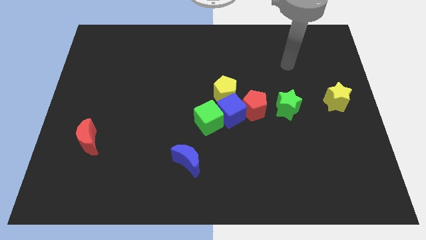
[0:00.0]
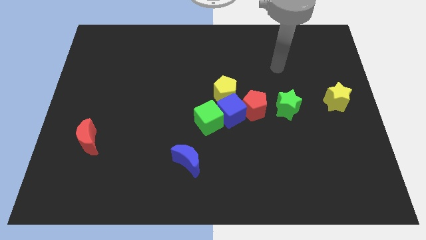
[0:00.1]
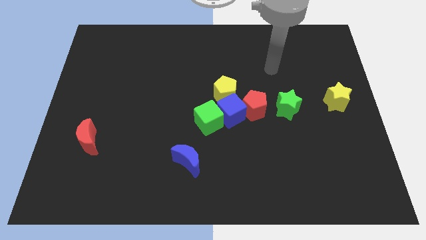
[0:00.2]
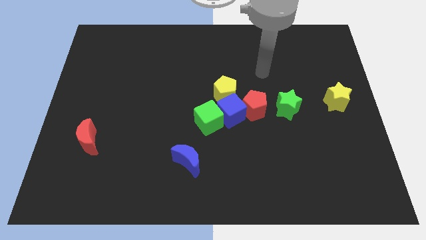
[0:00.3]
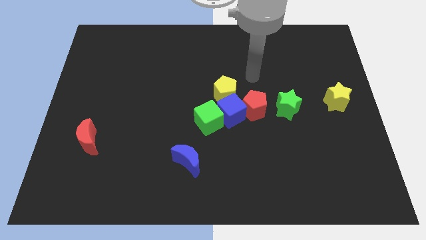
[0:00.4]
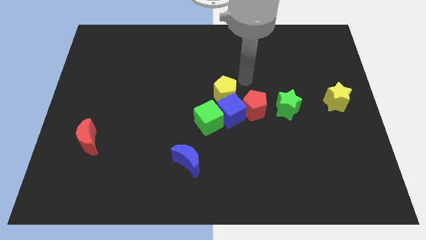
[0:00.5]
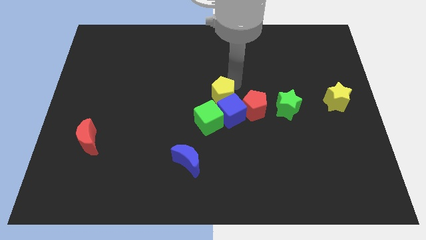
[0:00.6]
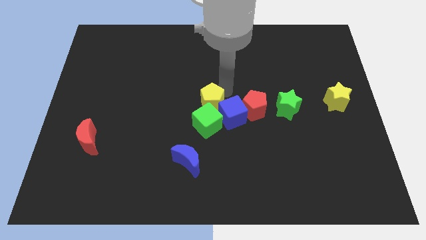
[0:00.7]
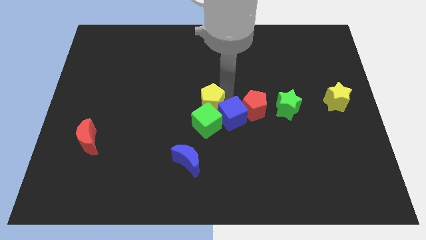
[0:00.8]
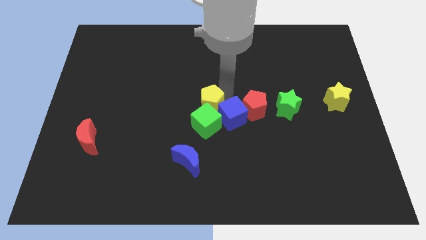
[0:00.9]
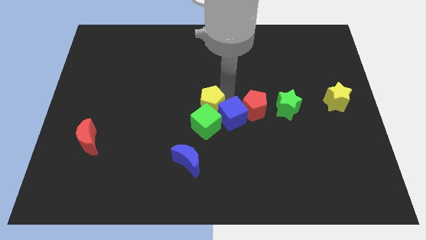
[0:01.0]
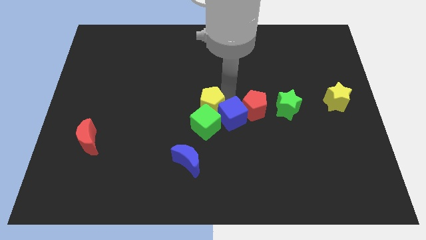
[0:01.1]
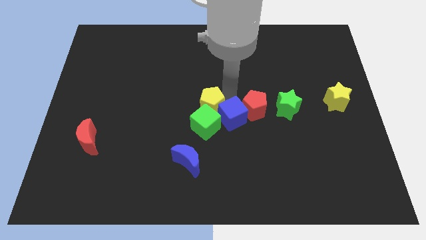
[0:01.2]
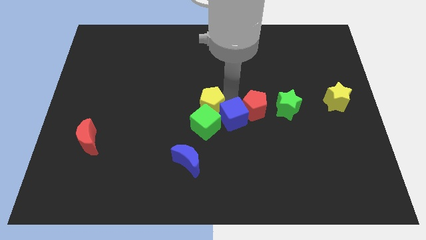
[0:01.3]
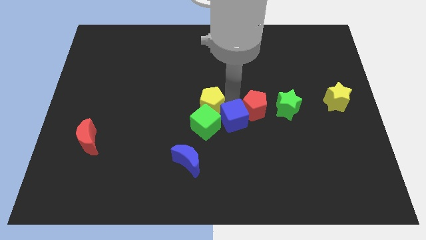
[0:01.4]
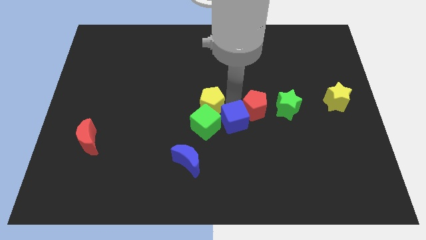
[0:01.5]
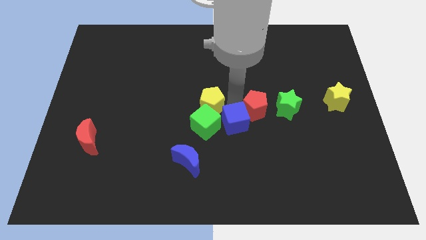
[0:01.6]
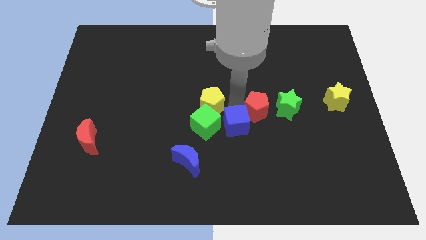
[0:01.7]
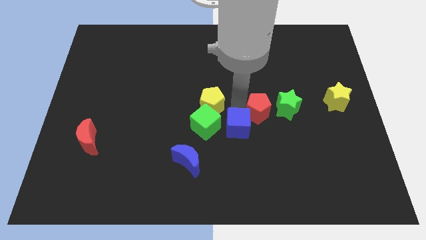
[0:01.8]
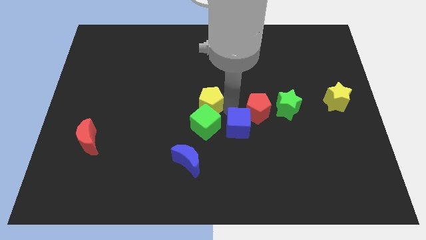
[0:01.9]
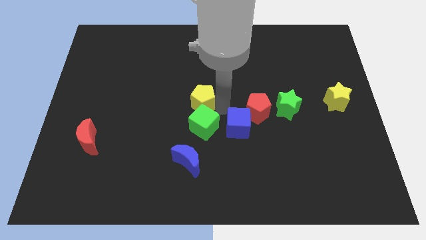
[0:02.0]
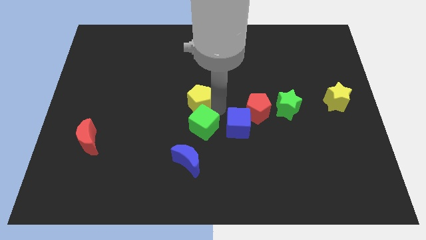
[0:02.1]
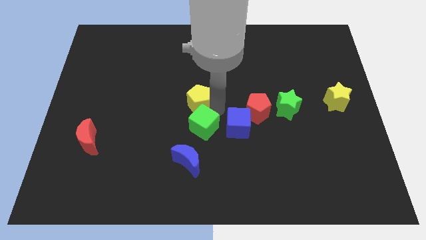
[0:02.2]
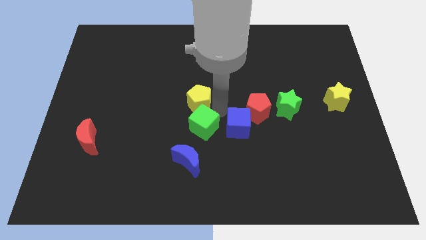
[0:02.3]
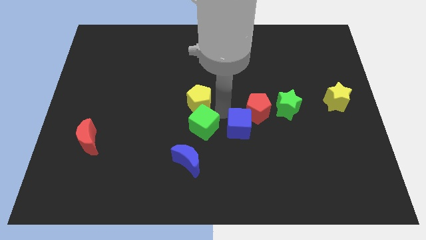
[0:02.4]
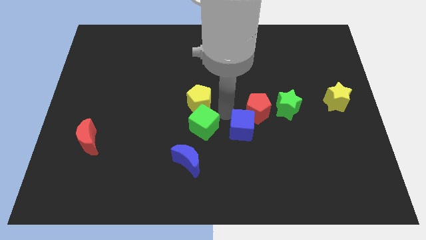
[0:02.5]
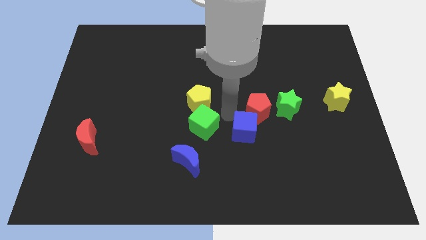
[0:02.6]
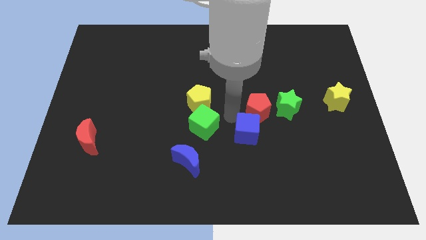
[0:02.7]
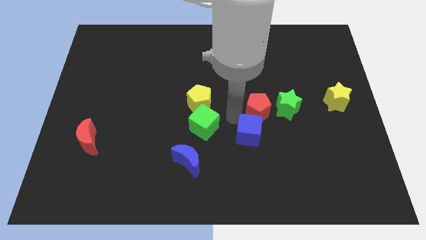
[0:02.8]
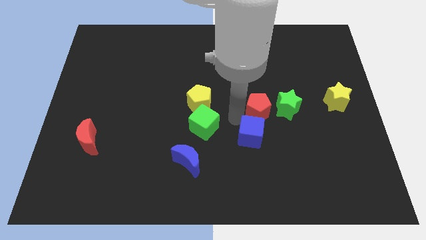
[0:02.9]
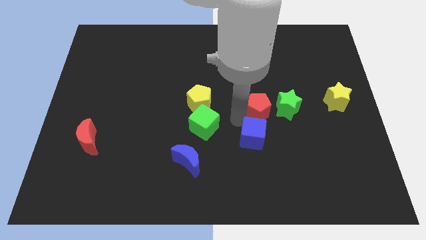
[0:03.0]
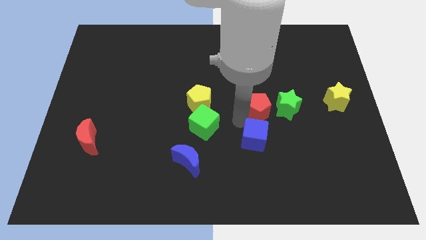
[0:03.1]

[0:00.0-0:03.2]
move the blue cube away from the green cube, red pentagon, and yellow pentagon

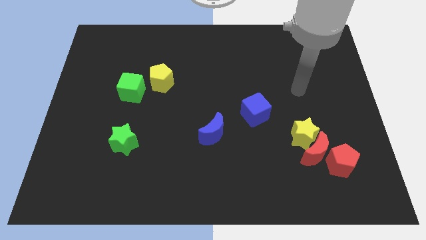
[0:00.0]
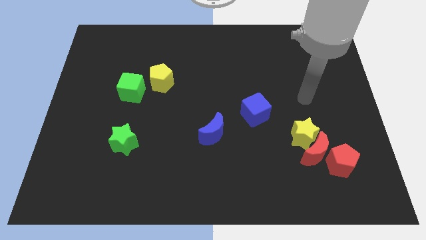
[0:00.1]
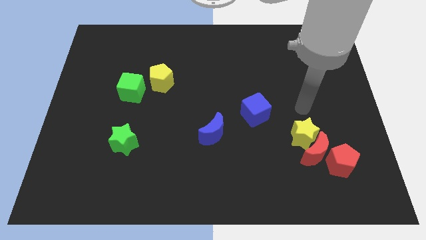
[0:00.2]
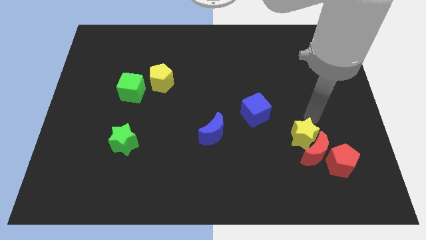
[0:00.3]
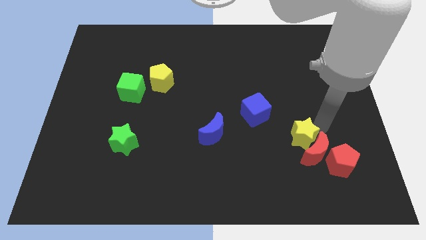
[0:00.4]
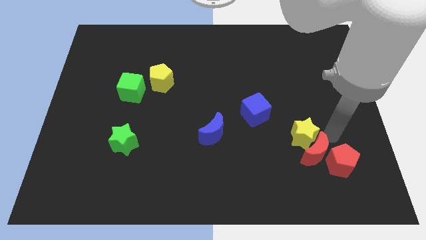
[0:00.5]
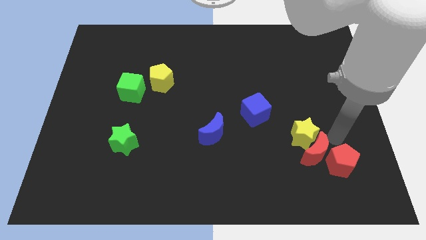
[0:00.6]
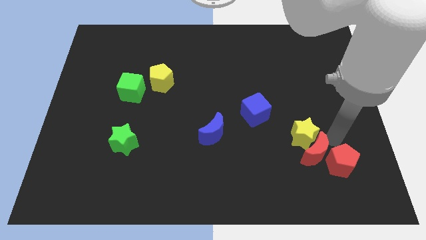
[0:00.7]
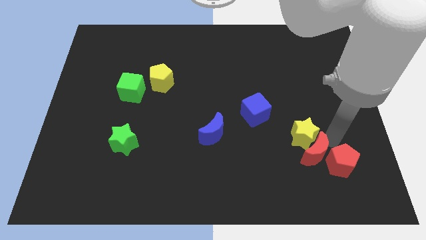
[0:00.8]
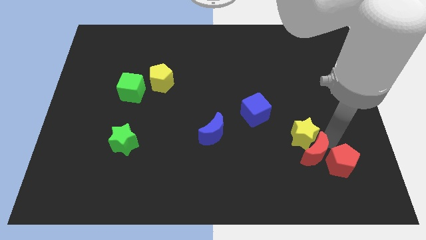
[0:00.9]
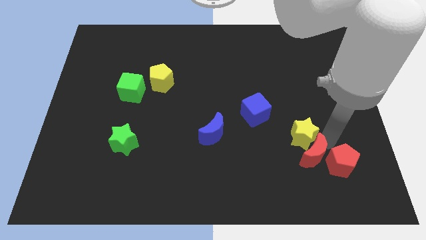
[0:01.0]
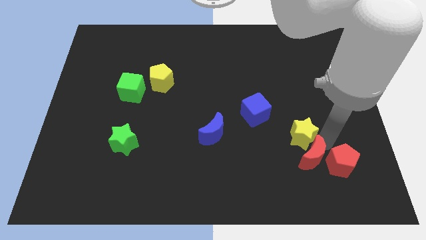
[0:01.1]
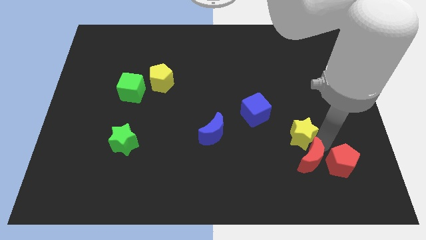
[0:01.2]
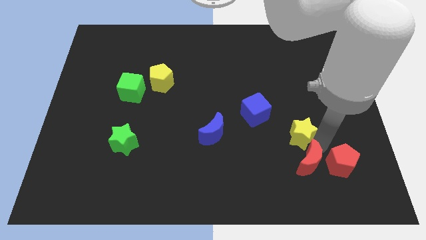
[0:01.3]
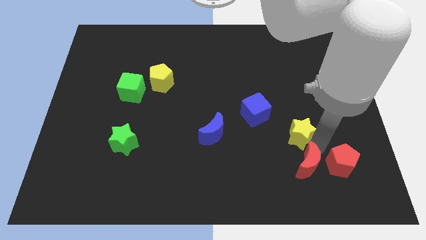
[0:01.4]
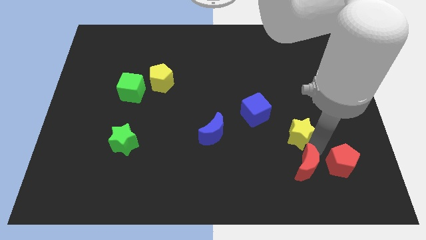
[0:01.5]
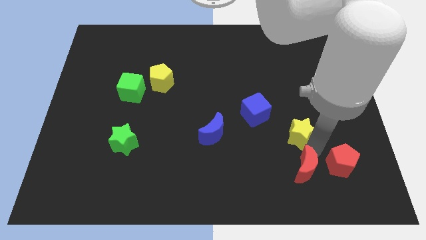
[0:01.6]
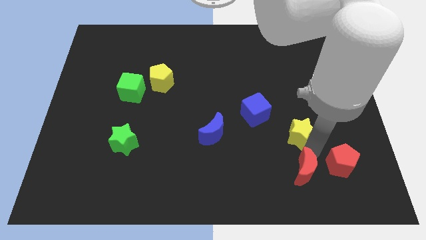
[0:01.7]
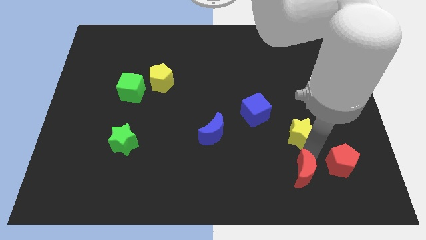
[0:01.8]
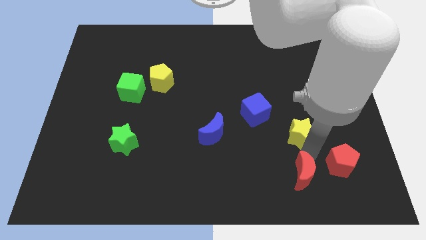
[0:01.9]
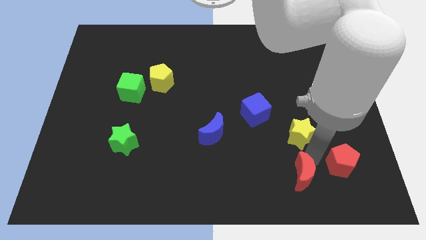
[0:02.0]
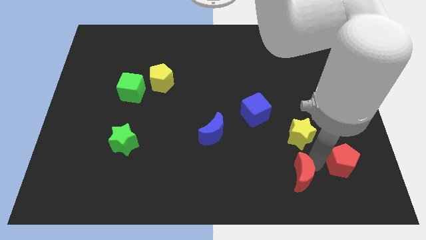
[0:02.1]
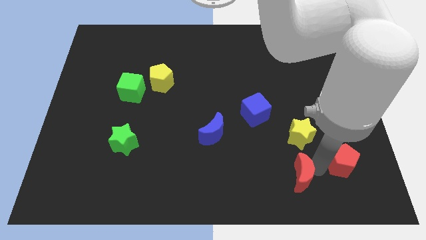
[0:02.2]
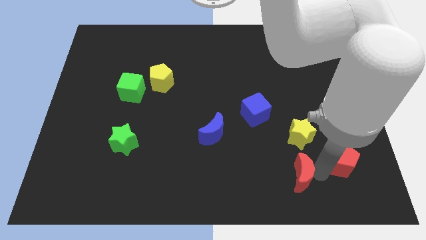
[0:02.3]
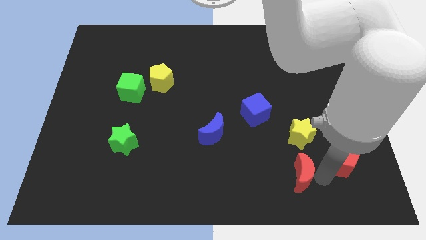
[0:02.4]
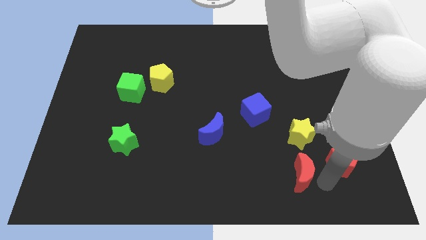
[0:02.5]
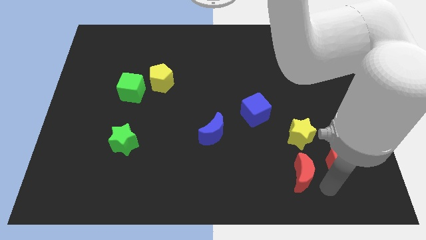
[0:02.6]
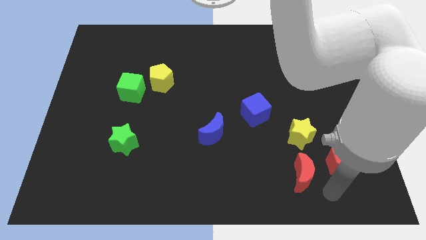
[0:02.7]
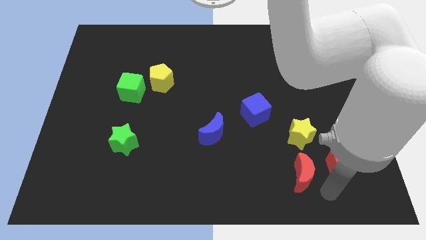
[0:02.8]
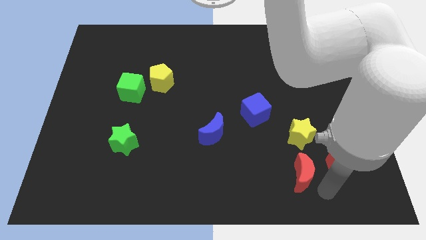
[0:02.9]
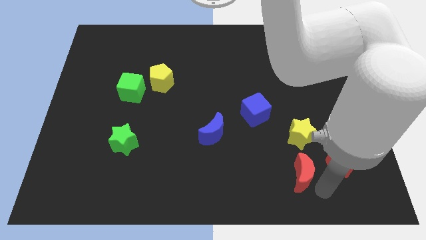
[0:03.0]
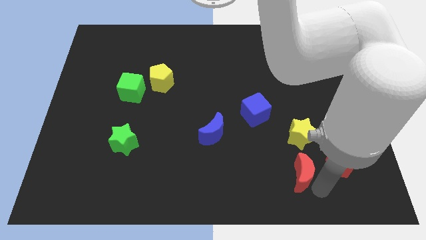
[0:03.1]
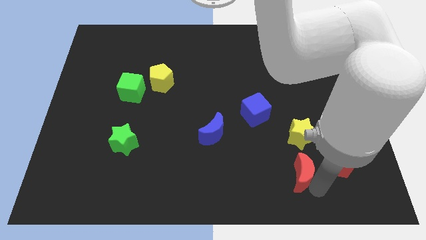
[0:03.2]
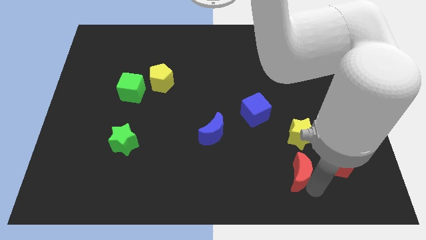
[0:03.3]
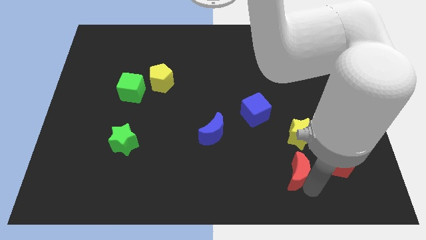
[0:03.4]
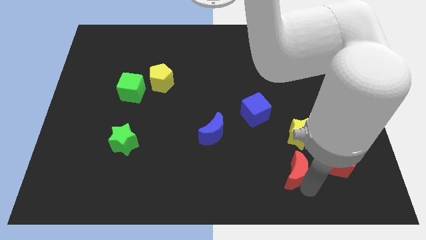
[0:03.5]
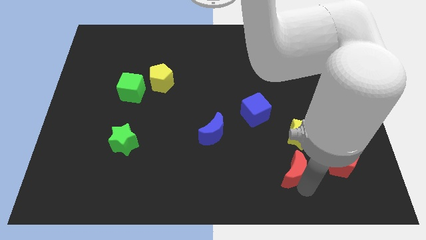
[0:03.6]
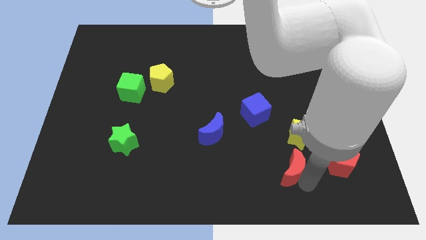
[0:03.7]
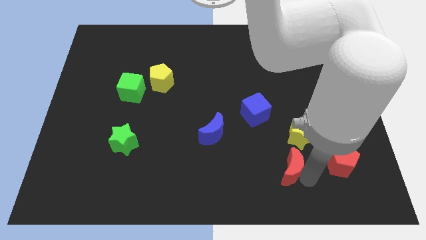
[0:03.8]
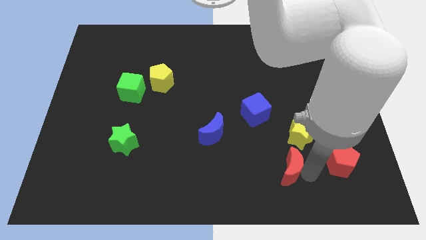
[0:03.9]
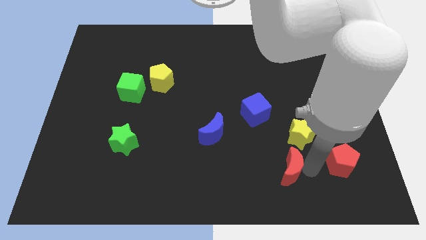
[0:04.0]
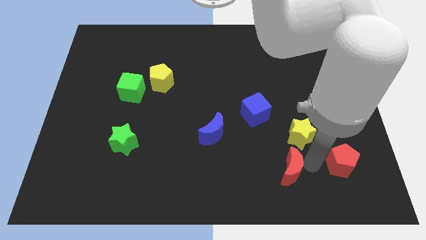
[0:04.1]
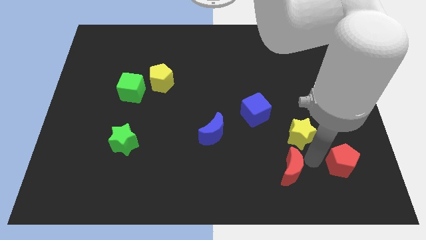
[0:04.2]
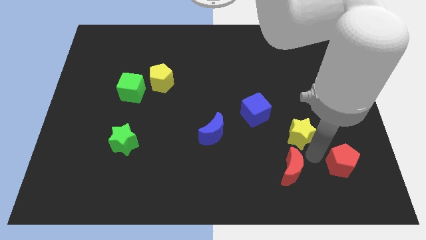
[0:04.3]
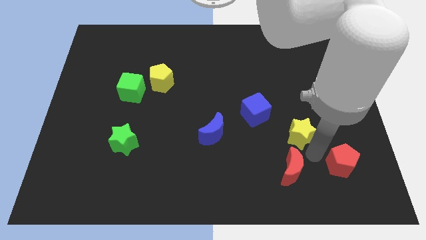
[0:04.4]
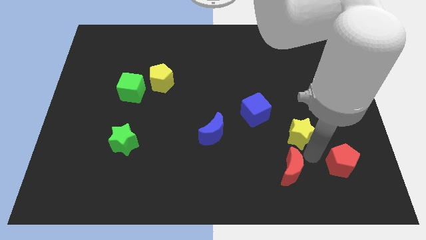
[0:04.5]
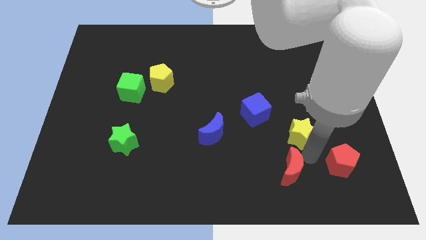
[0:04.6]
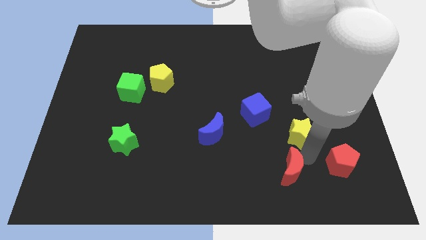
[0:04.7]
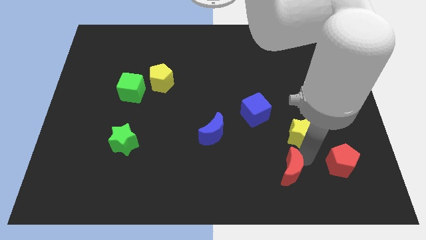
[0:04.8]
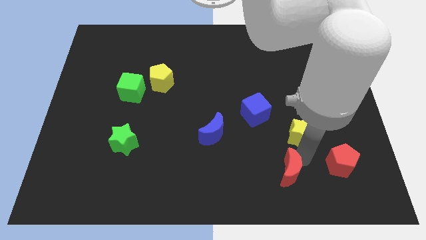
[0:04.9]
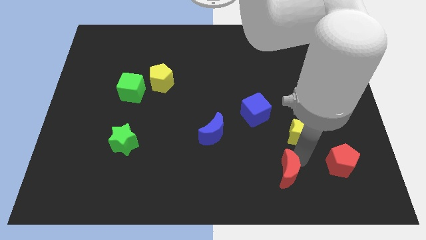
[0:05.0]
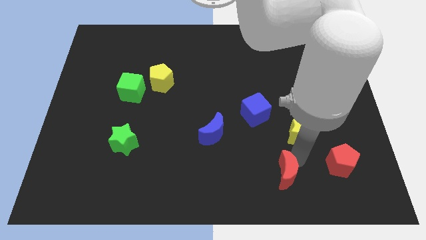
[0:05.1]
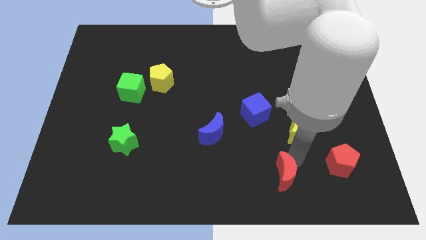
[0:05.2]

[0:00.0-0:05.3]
move the red moon away from the yellow star and red pentagon

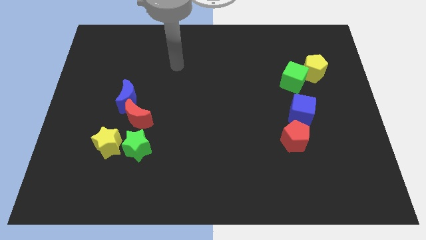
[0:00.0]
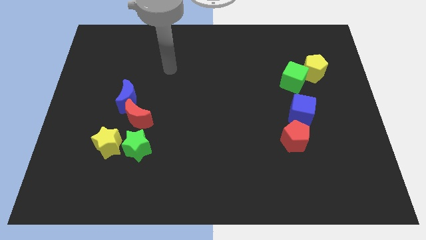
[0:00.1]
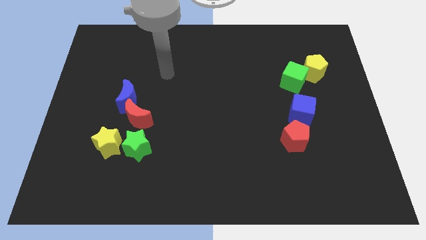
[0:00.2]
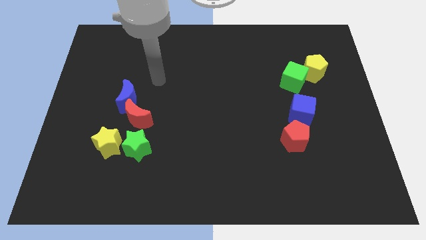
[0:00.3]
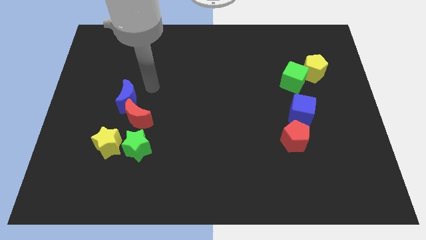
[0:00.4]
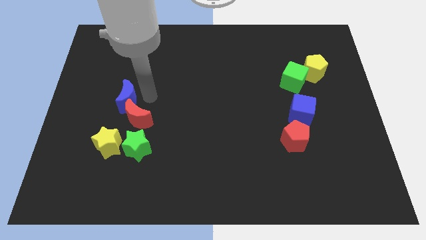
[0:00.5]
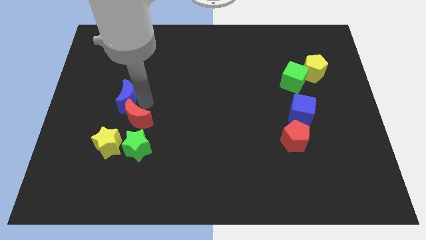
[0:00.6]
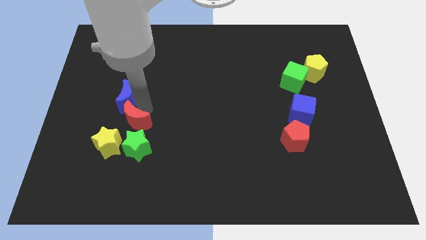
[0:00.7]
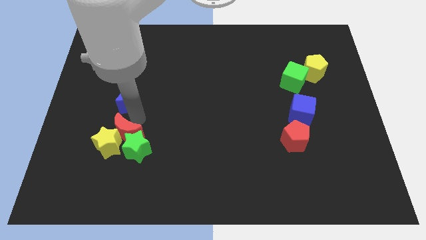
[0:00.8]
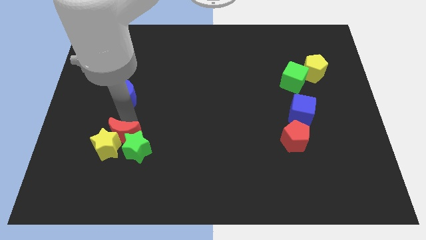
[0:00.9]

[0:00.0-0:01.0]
pull the blue moon apart from the red moon
